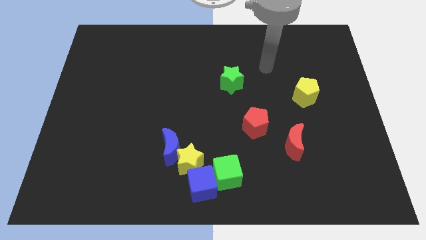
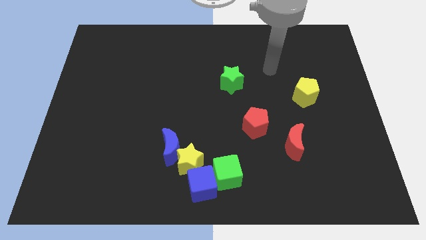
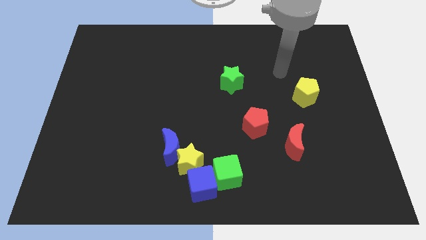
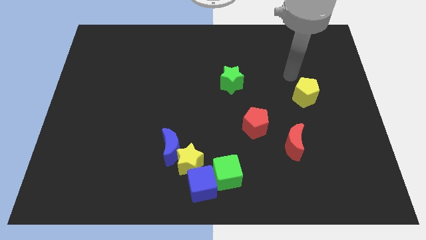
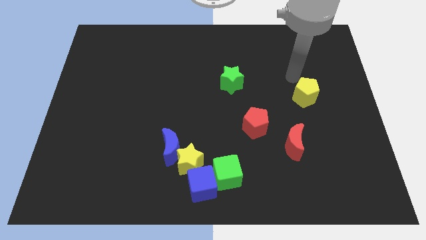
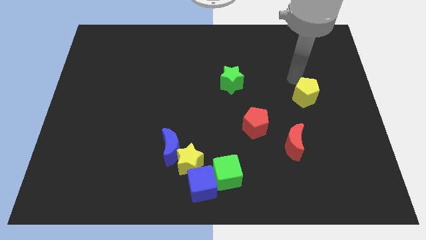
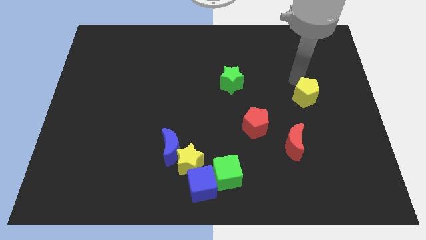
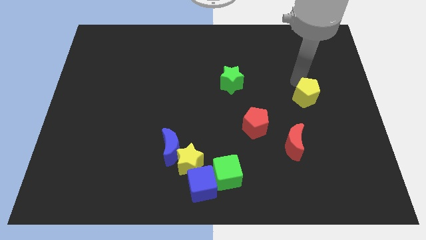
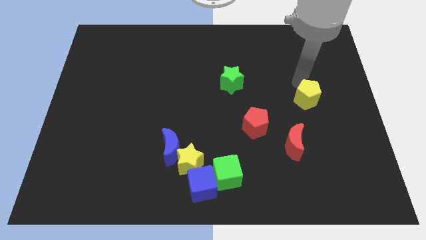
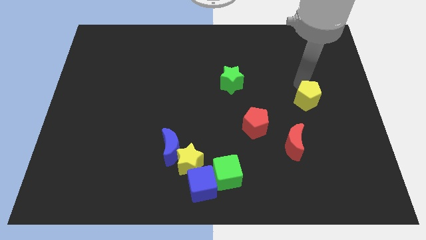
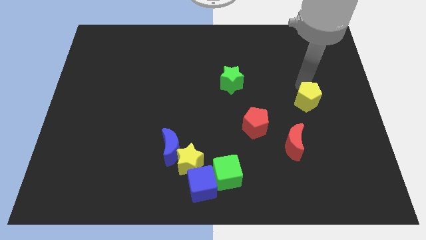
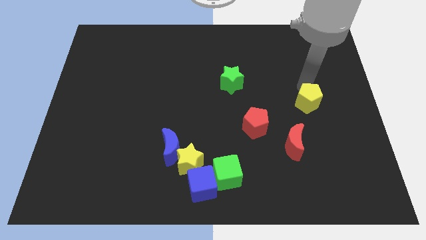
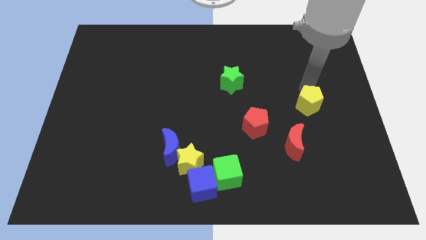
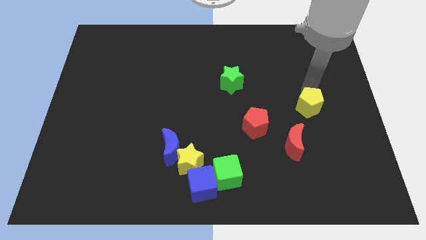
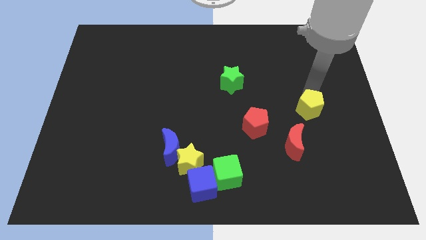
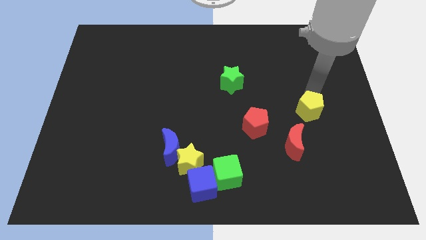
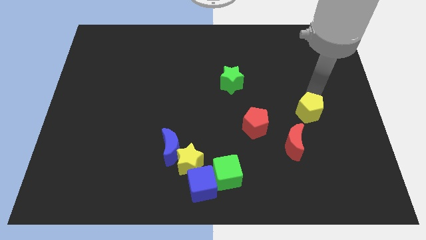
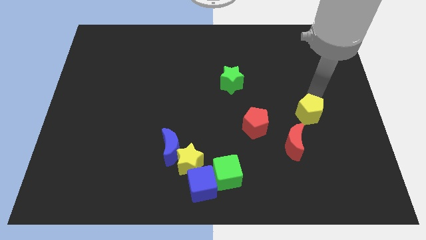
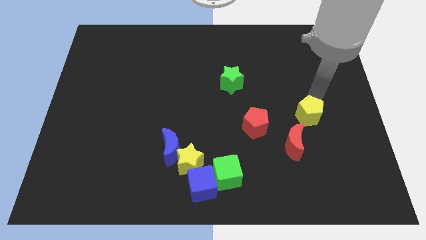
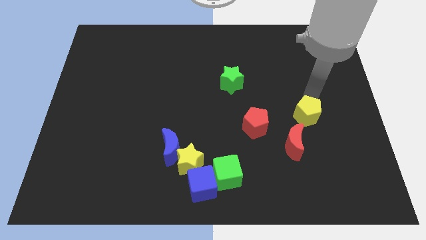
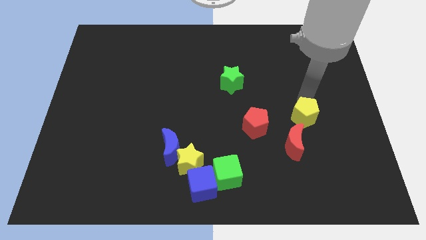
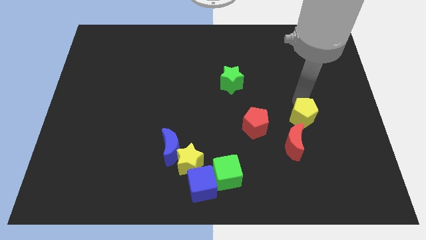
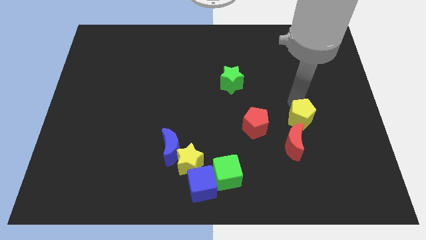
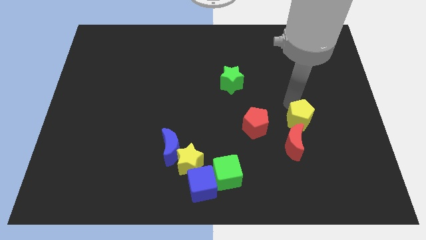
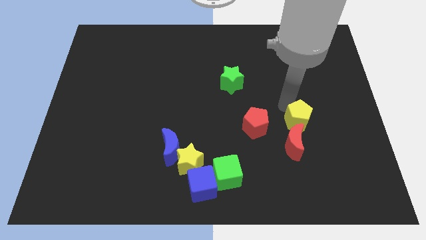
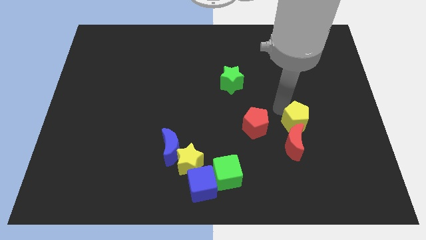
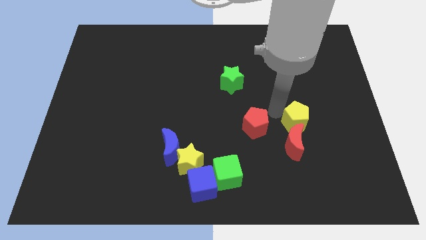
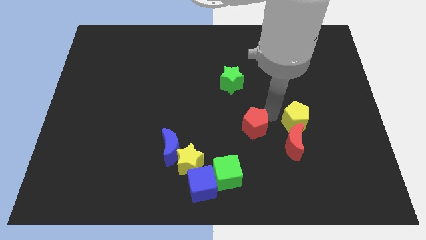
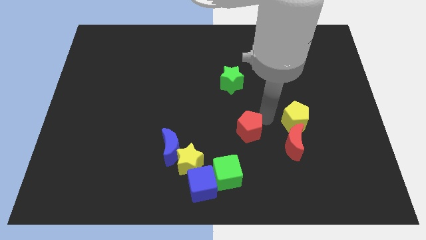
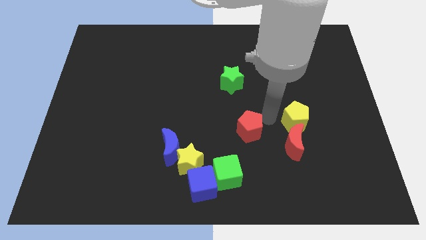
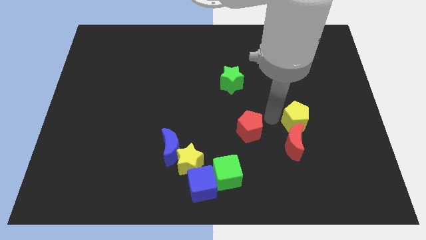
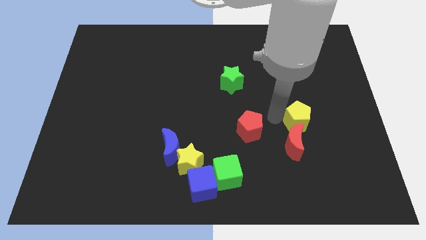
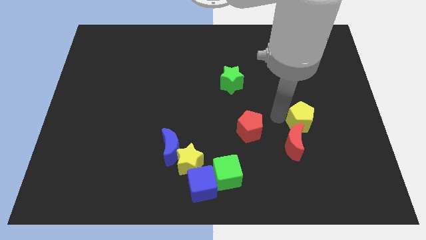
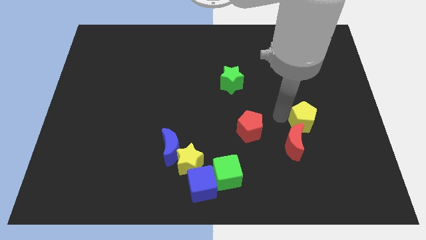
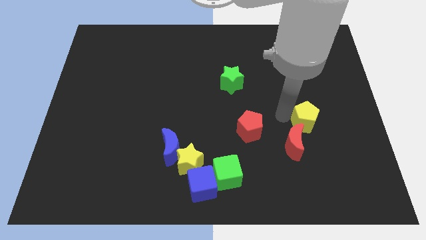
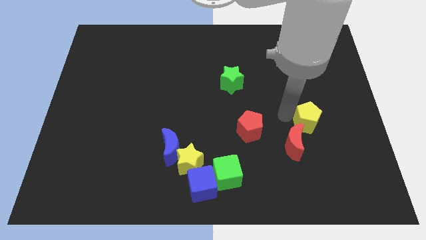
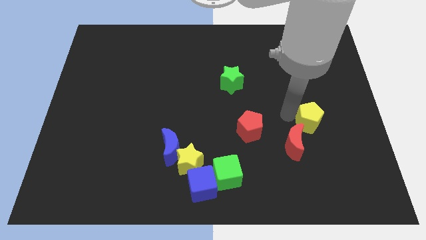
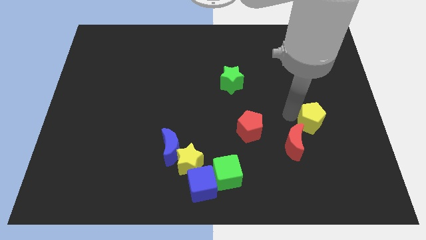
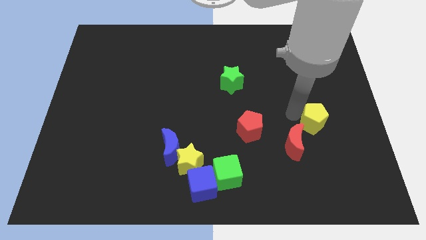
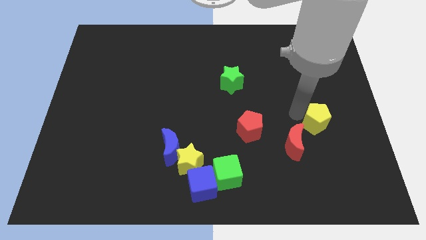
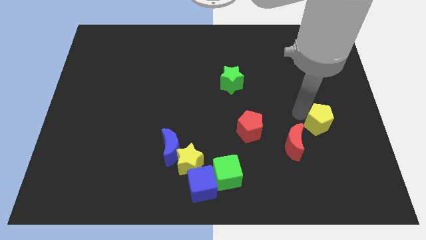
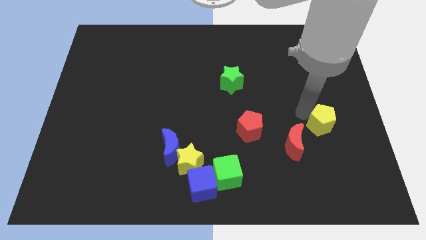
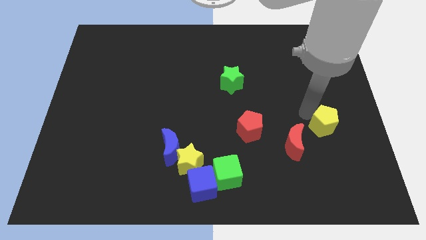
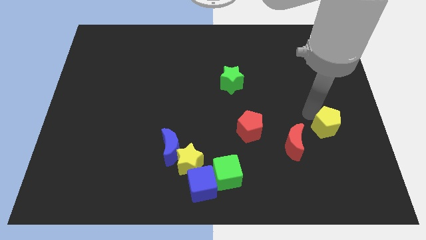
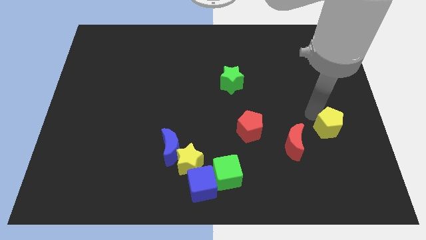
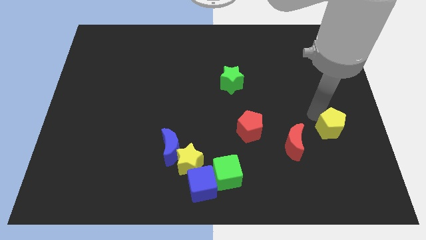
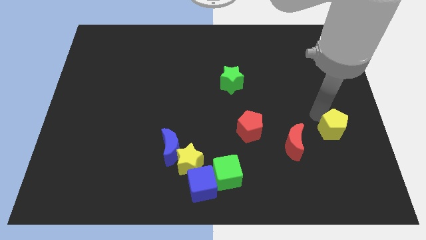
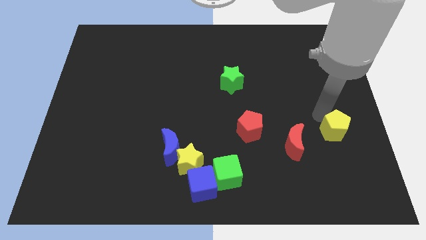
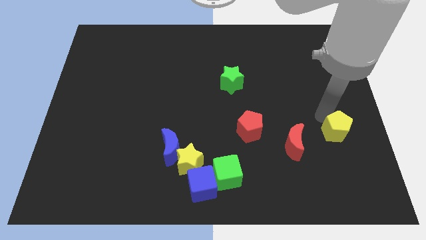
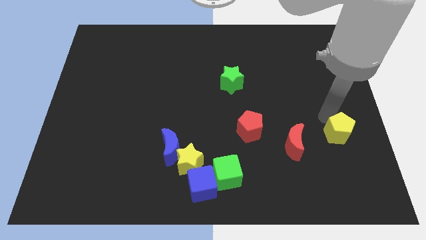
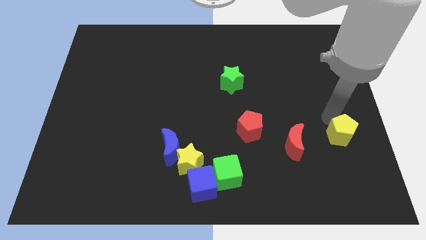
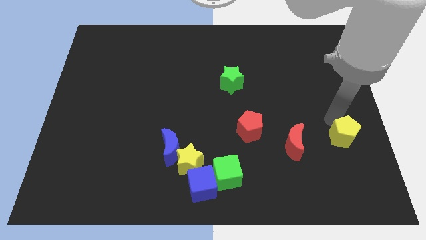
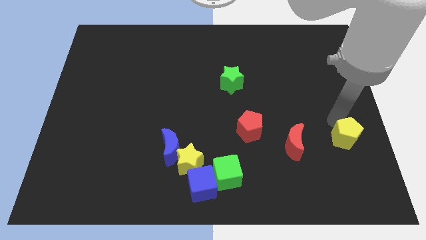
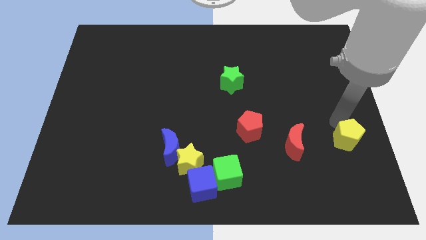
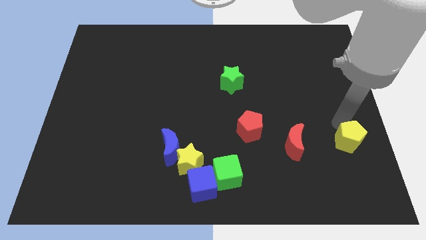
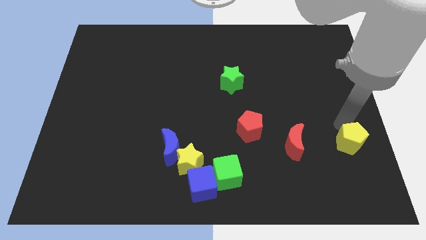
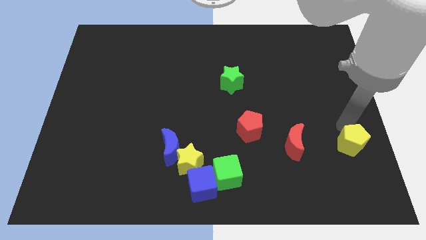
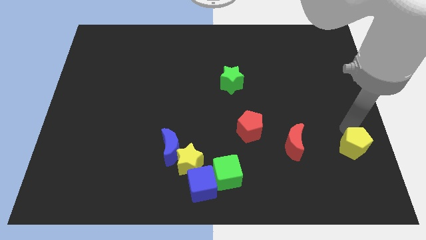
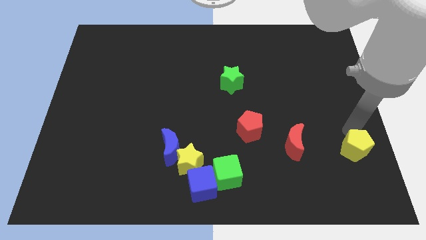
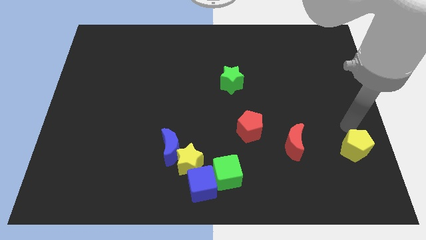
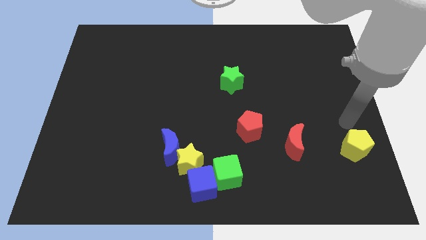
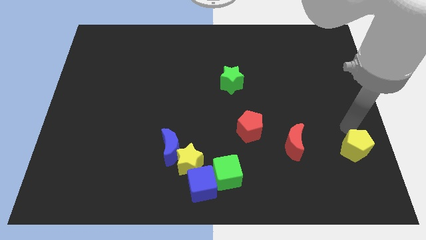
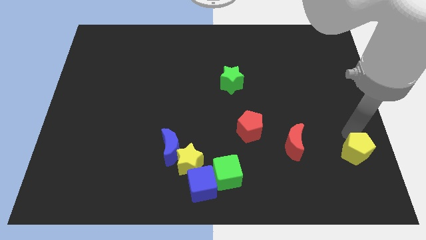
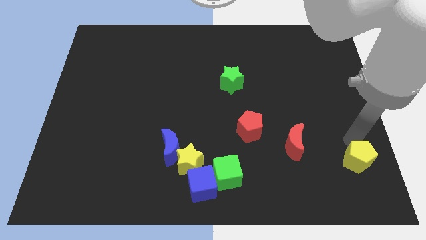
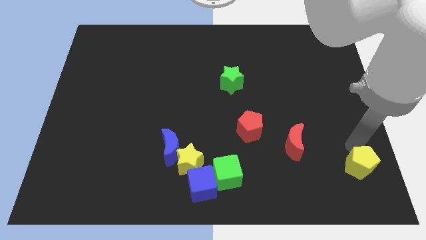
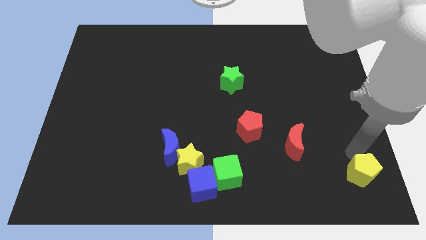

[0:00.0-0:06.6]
slide the yellow pentagon to the bottom right
